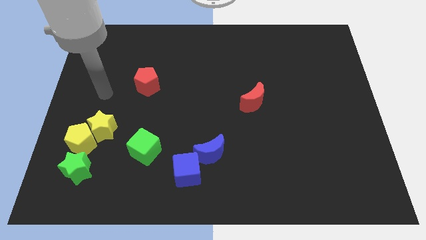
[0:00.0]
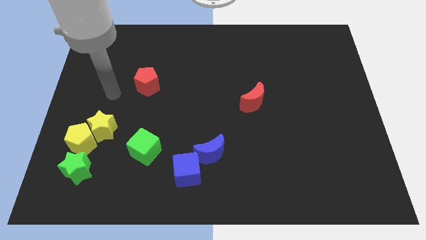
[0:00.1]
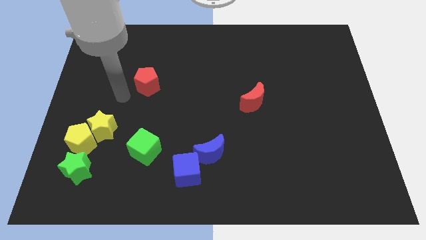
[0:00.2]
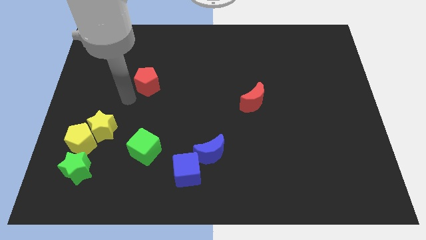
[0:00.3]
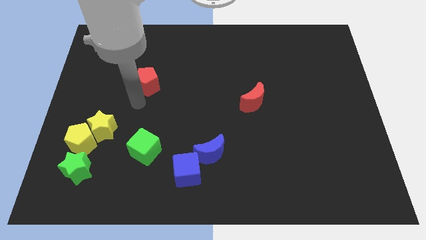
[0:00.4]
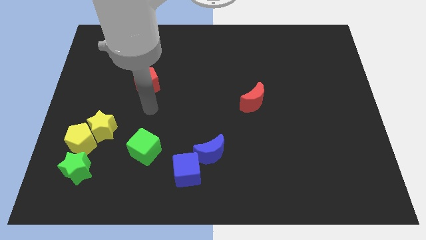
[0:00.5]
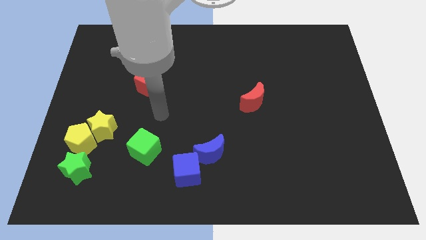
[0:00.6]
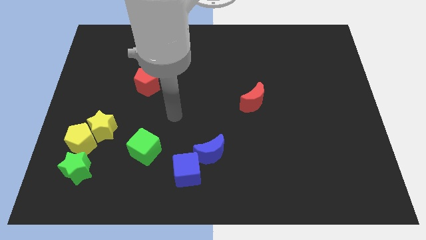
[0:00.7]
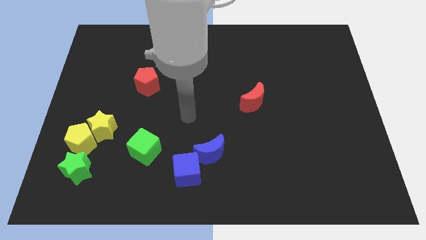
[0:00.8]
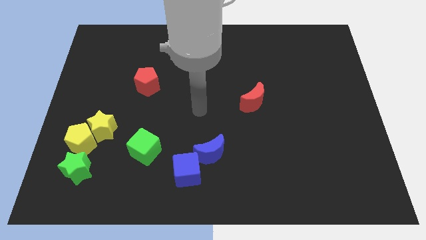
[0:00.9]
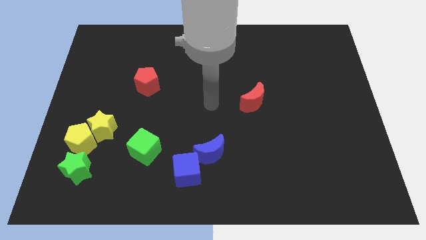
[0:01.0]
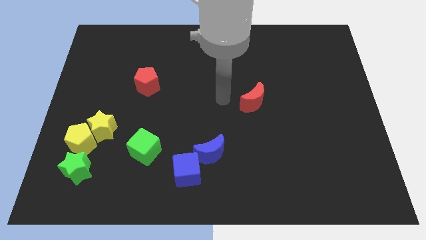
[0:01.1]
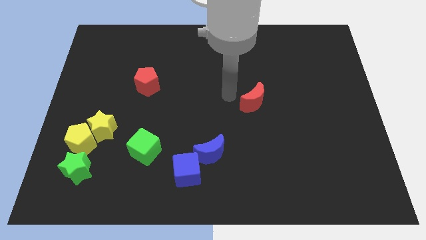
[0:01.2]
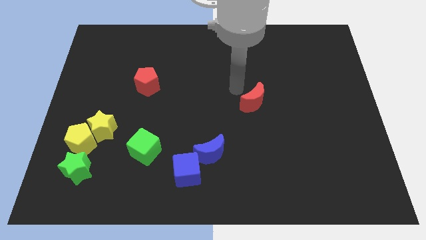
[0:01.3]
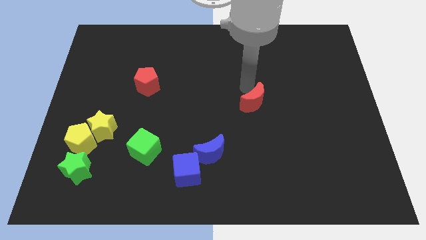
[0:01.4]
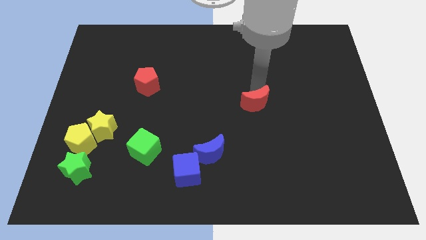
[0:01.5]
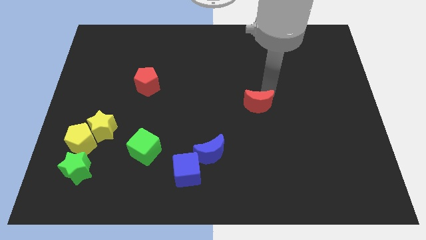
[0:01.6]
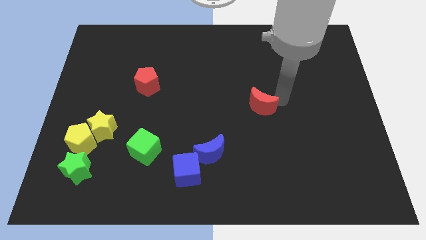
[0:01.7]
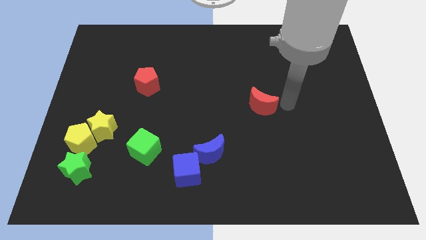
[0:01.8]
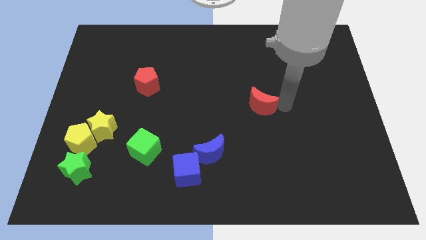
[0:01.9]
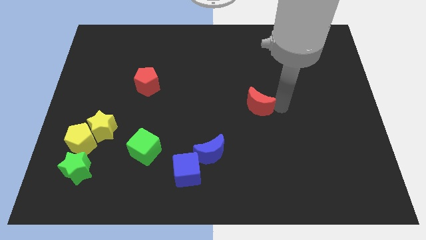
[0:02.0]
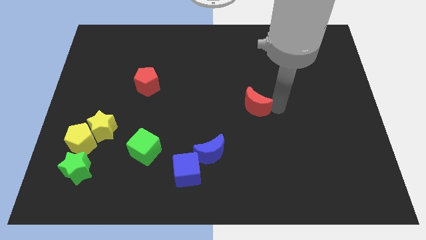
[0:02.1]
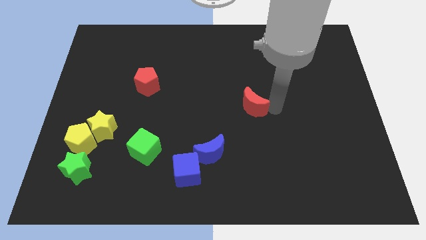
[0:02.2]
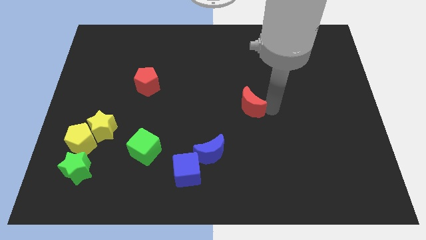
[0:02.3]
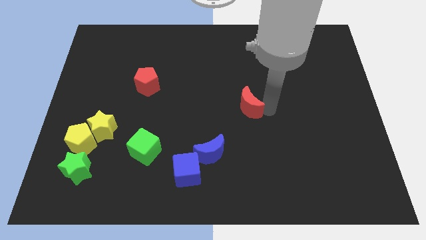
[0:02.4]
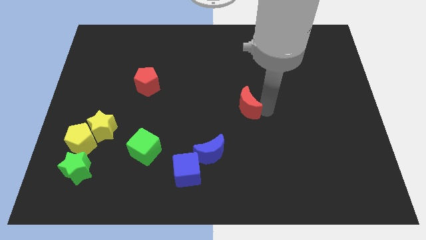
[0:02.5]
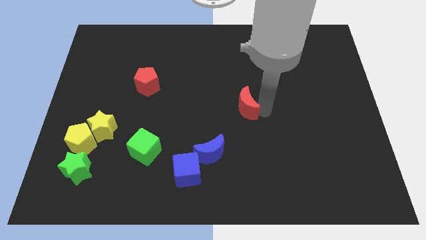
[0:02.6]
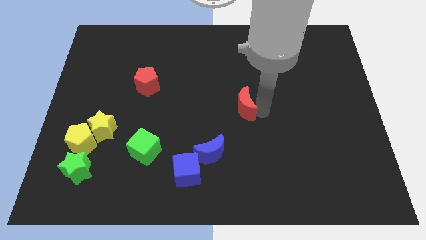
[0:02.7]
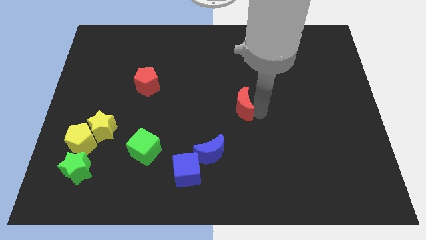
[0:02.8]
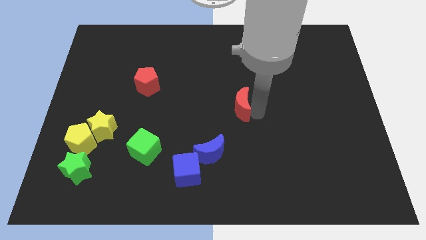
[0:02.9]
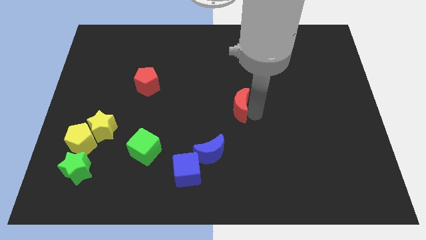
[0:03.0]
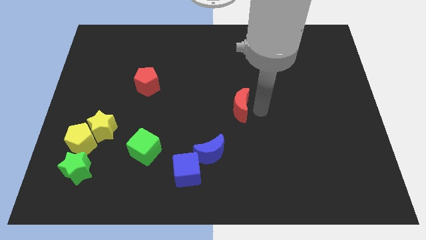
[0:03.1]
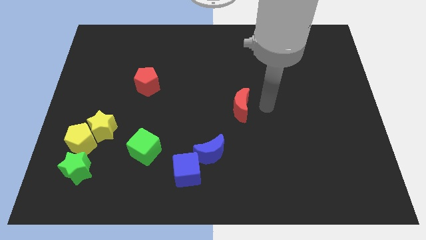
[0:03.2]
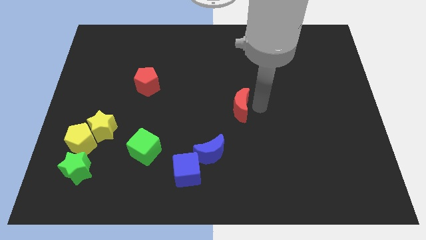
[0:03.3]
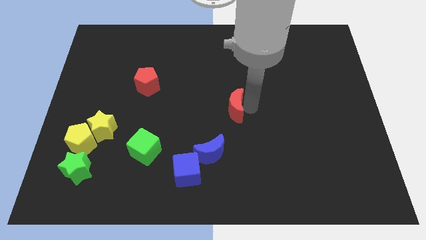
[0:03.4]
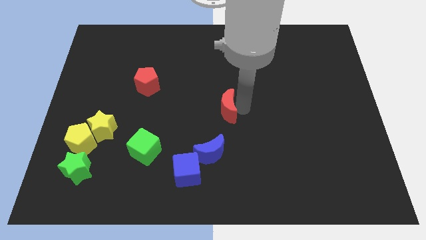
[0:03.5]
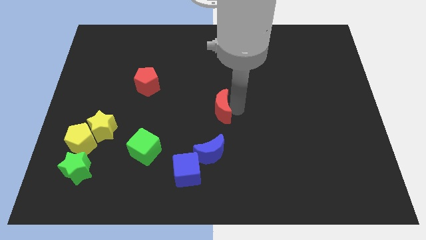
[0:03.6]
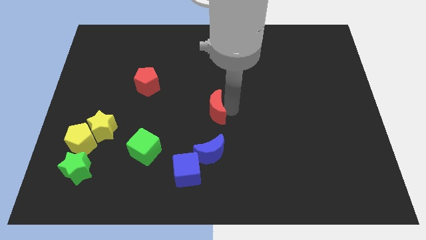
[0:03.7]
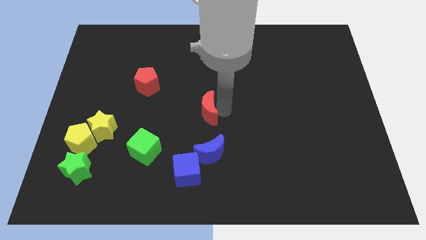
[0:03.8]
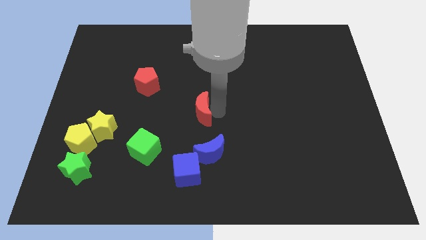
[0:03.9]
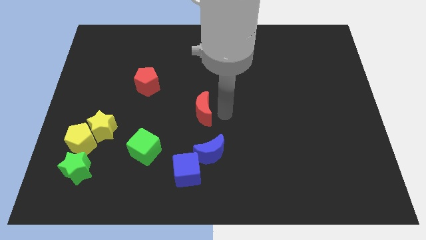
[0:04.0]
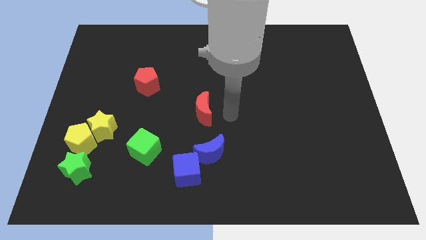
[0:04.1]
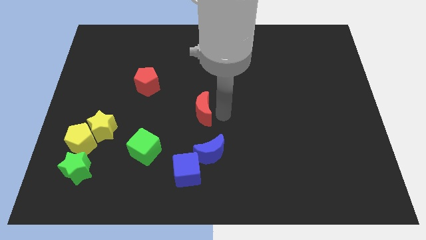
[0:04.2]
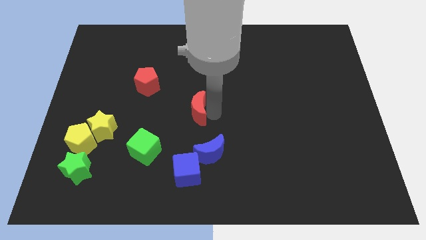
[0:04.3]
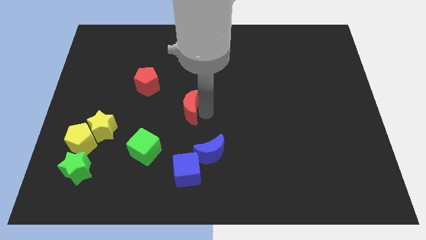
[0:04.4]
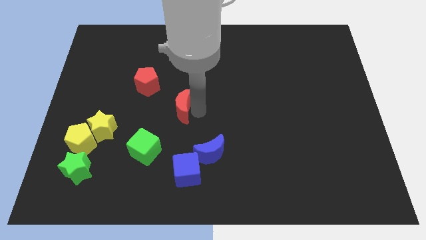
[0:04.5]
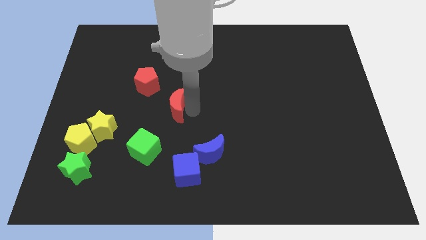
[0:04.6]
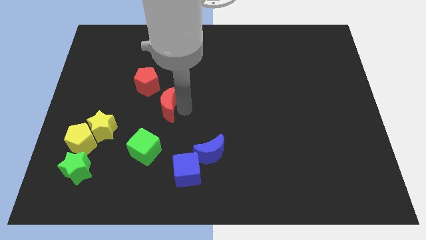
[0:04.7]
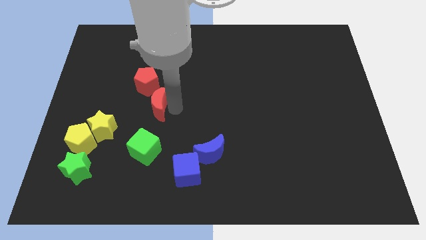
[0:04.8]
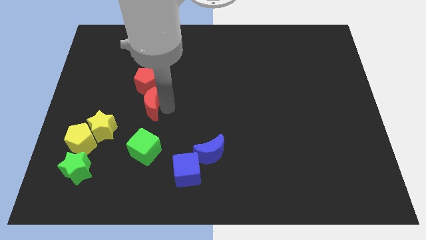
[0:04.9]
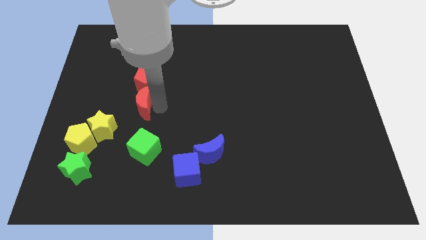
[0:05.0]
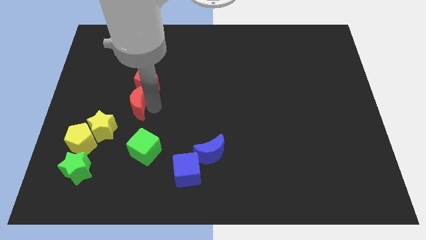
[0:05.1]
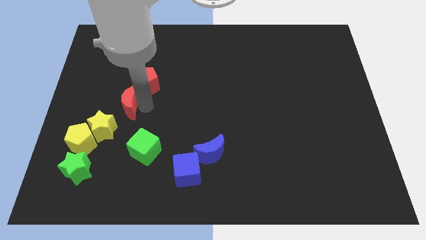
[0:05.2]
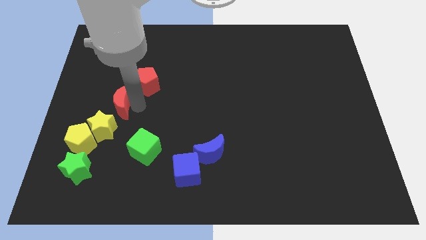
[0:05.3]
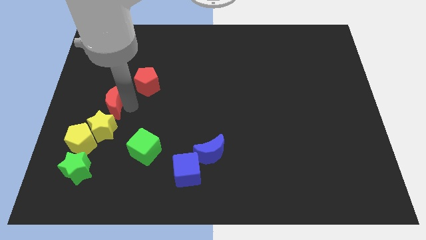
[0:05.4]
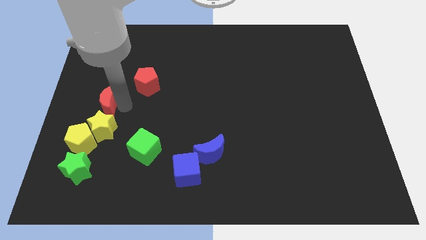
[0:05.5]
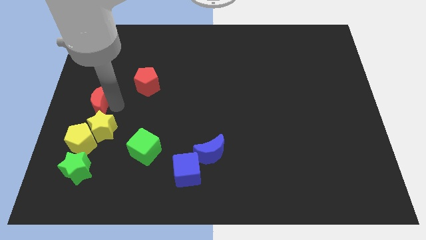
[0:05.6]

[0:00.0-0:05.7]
move the red moon to the left side of the board

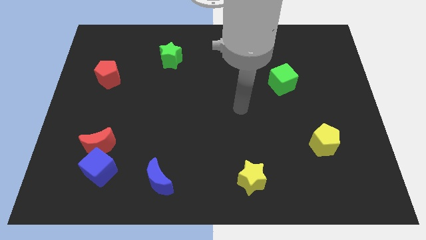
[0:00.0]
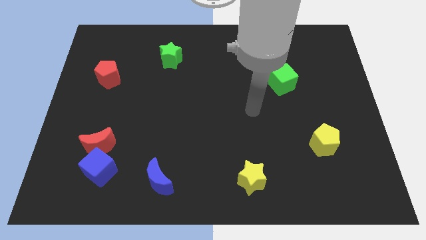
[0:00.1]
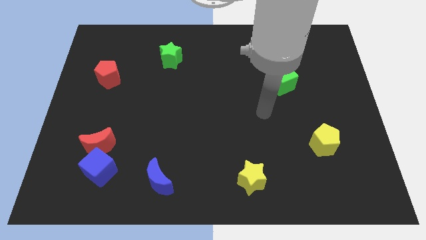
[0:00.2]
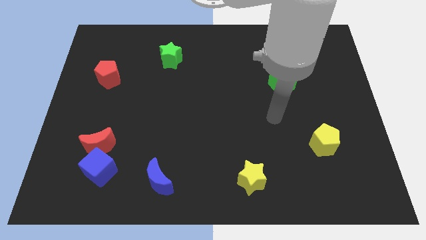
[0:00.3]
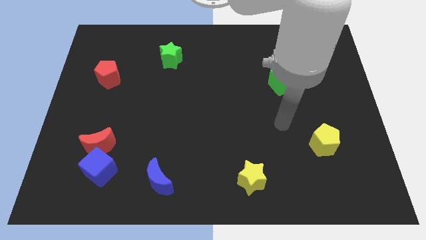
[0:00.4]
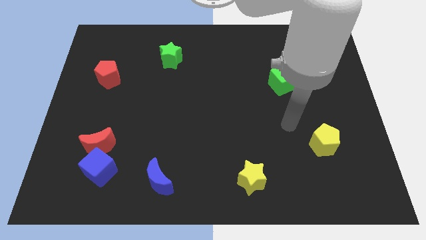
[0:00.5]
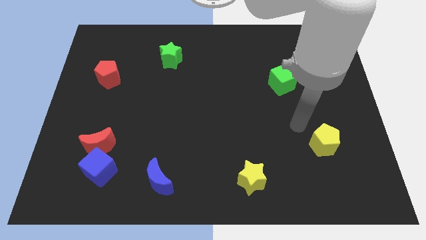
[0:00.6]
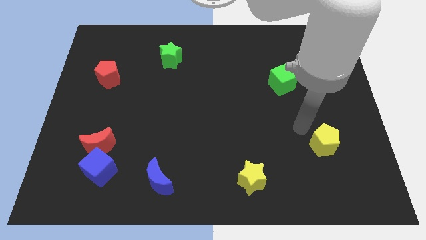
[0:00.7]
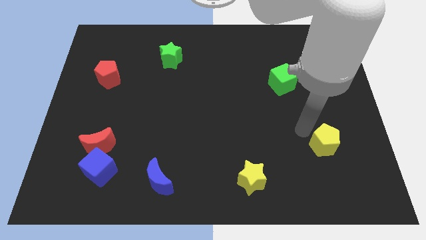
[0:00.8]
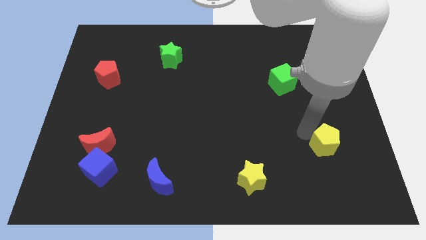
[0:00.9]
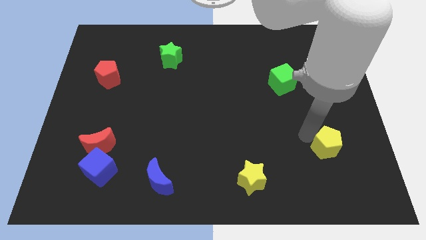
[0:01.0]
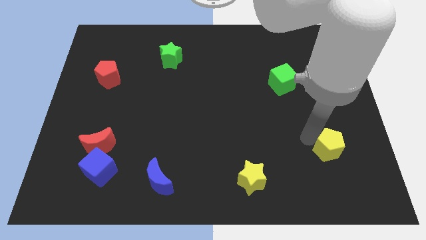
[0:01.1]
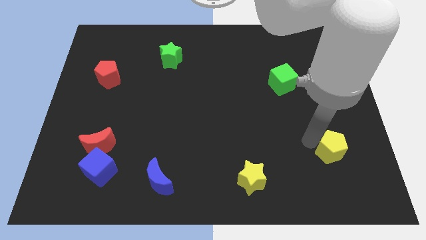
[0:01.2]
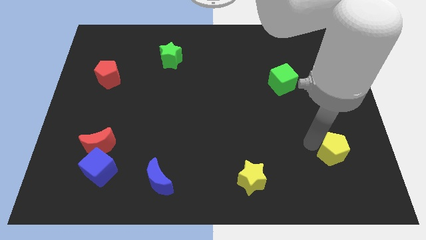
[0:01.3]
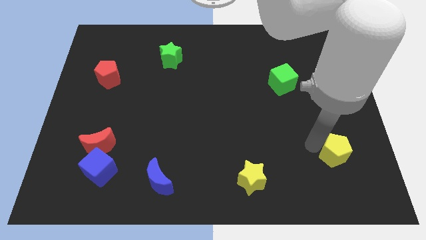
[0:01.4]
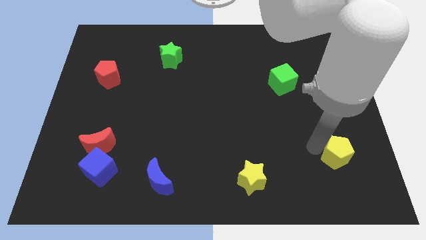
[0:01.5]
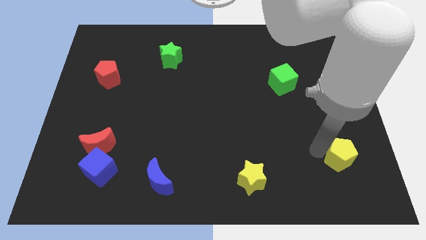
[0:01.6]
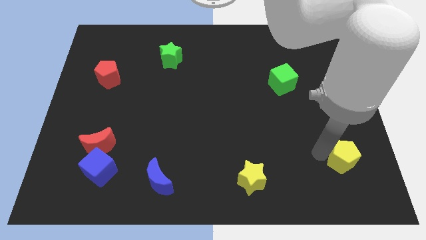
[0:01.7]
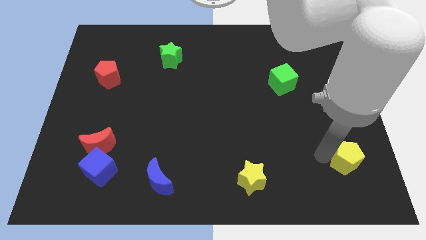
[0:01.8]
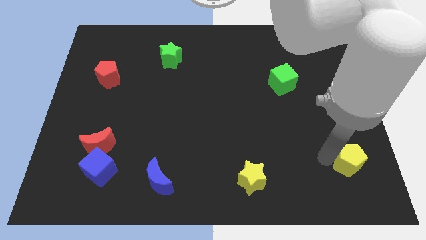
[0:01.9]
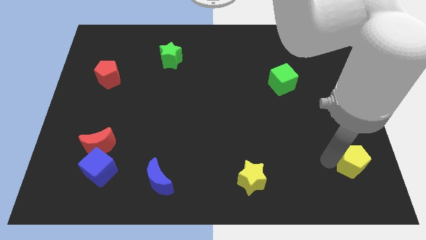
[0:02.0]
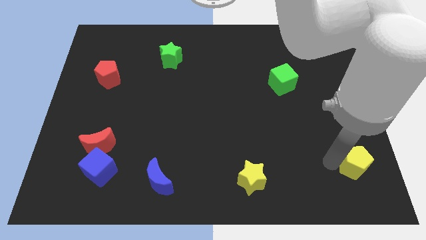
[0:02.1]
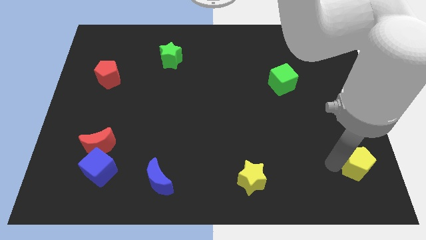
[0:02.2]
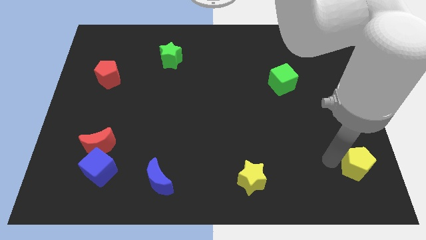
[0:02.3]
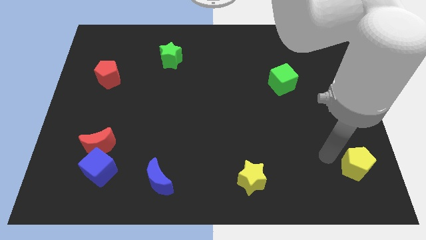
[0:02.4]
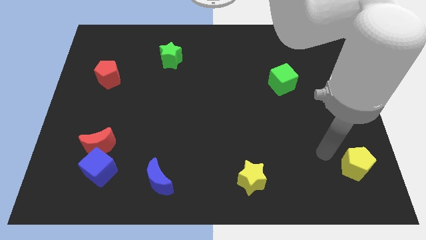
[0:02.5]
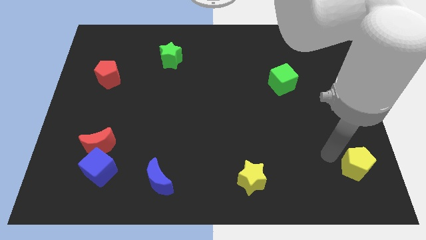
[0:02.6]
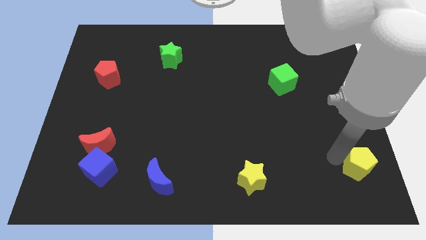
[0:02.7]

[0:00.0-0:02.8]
put the yellow pentagon to the bottom right
